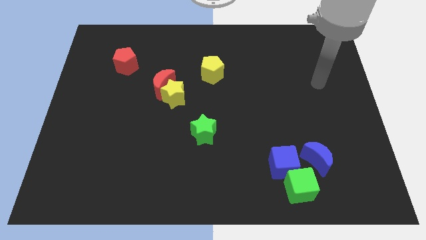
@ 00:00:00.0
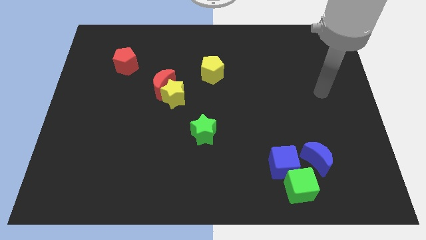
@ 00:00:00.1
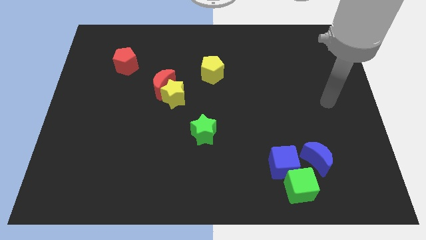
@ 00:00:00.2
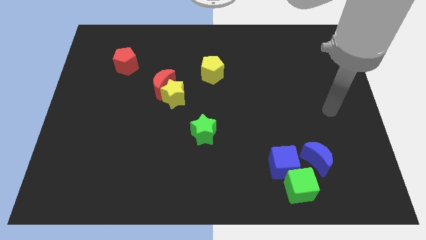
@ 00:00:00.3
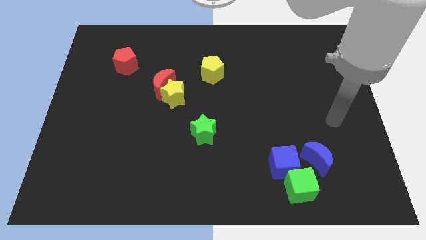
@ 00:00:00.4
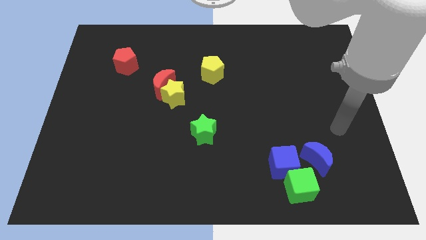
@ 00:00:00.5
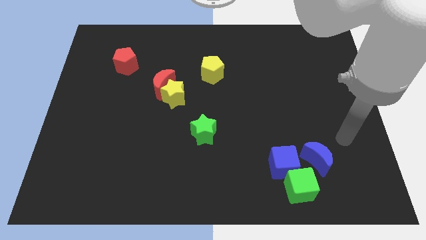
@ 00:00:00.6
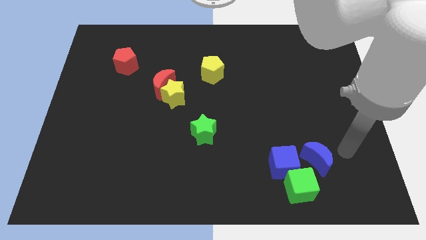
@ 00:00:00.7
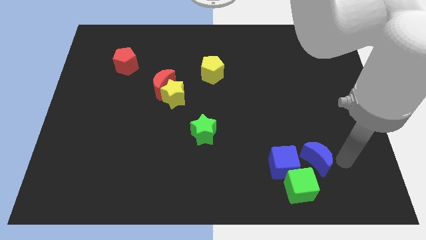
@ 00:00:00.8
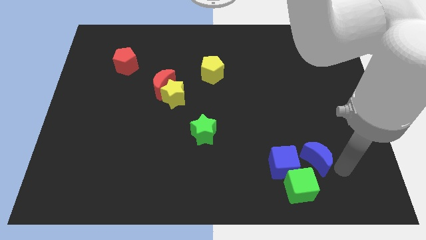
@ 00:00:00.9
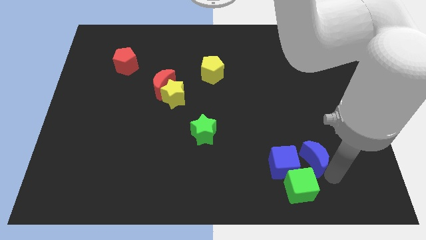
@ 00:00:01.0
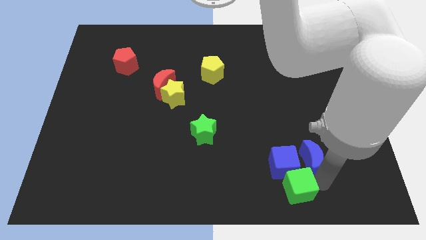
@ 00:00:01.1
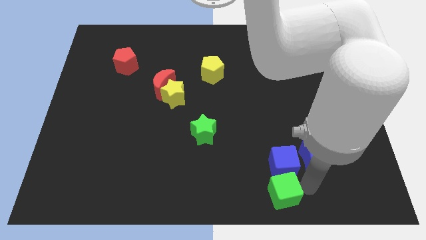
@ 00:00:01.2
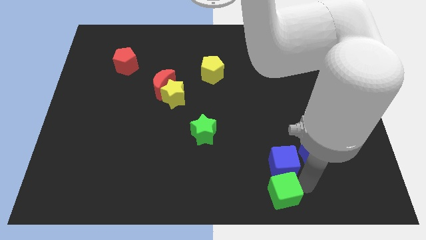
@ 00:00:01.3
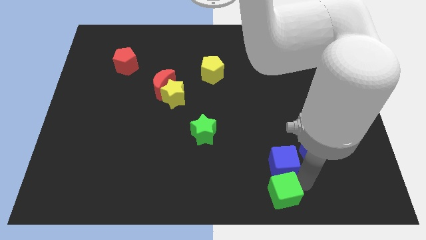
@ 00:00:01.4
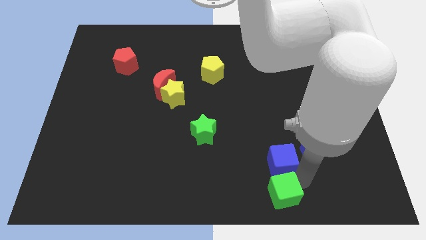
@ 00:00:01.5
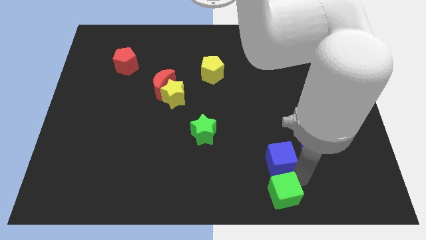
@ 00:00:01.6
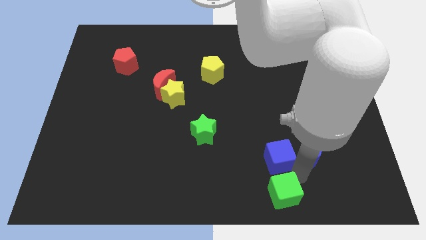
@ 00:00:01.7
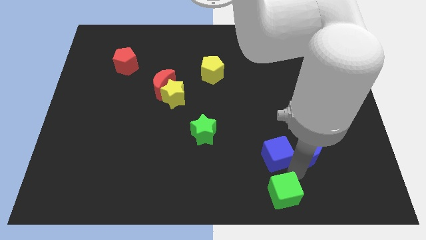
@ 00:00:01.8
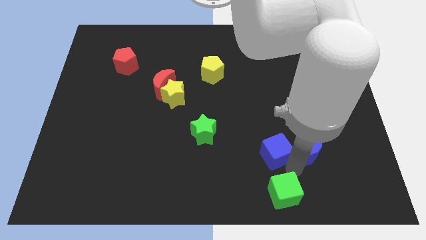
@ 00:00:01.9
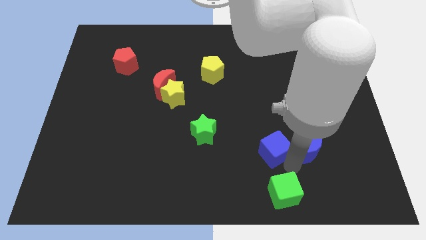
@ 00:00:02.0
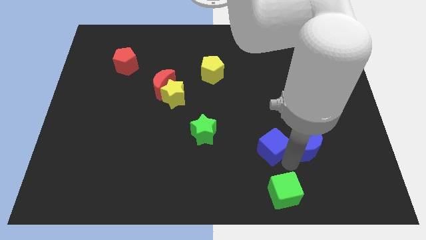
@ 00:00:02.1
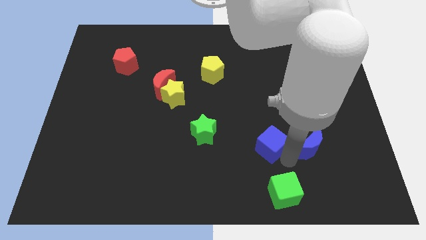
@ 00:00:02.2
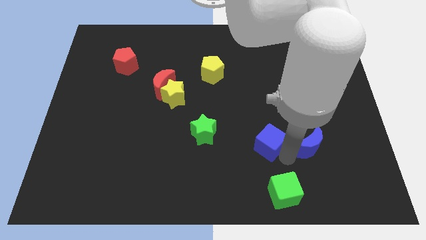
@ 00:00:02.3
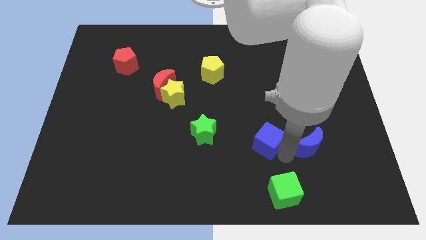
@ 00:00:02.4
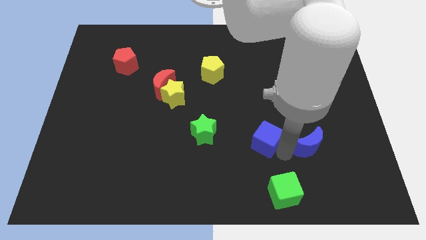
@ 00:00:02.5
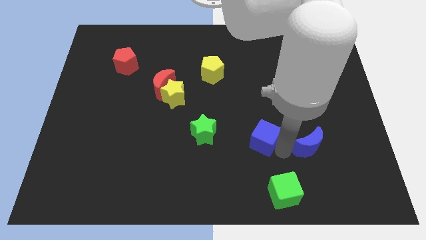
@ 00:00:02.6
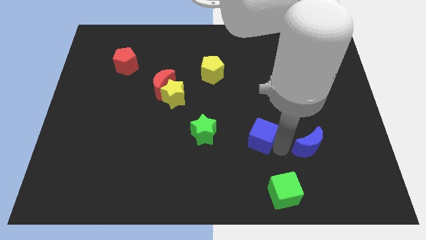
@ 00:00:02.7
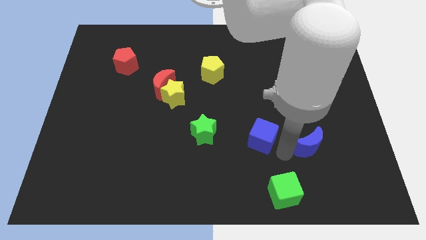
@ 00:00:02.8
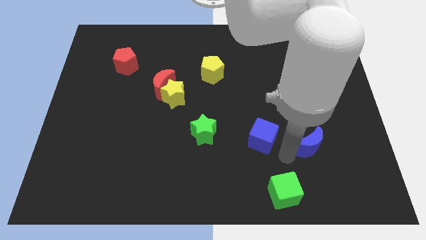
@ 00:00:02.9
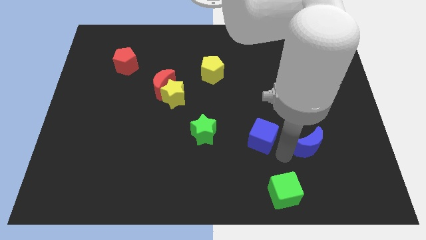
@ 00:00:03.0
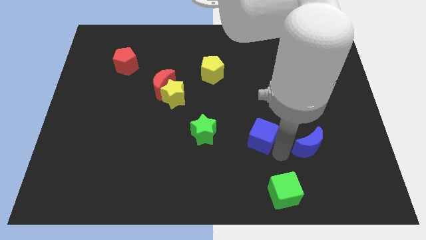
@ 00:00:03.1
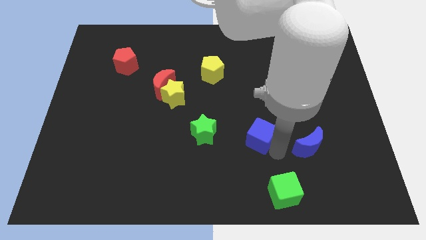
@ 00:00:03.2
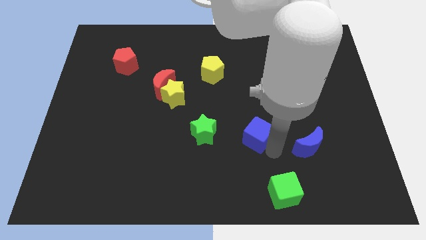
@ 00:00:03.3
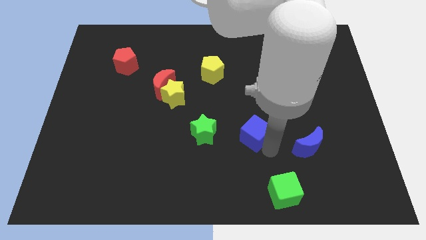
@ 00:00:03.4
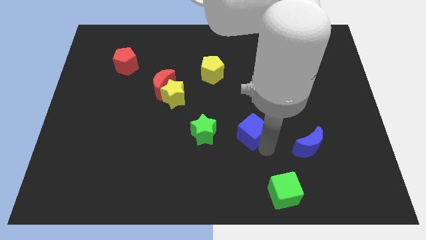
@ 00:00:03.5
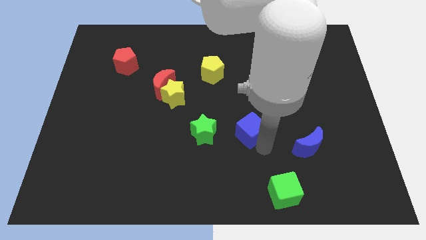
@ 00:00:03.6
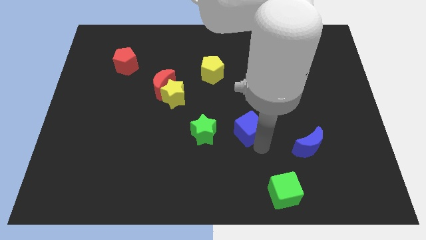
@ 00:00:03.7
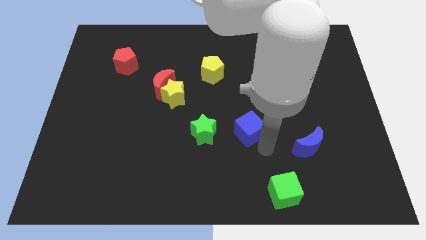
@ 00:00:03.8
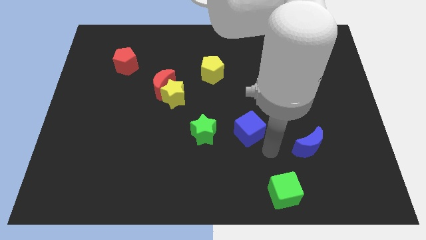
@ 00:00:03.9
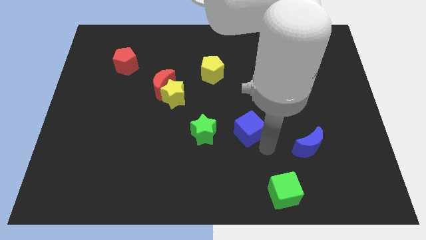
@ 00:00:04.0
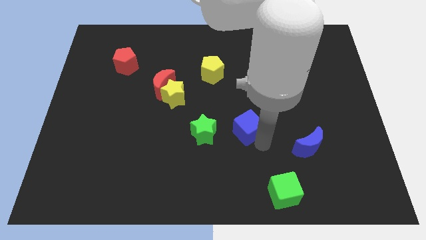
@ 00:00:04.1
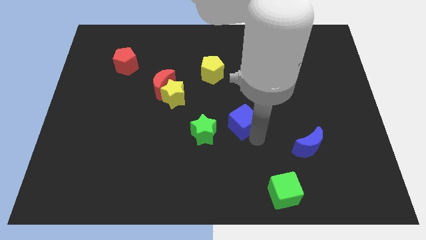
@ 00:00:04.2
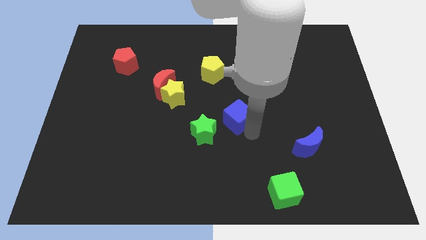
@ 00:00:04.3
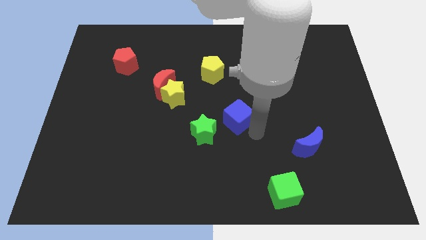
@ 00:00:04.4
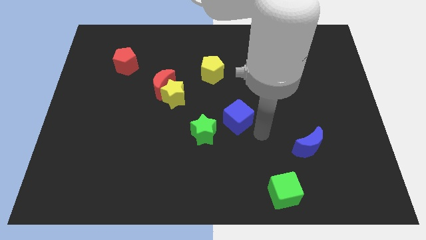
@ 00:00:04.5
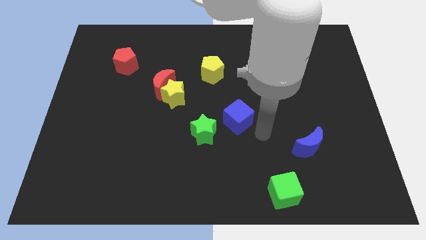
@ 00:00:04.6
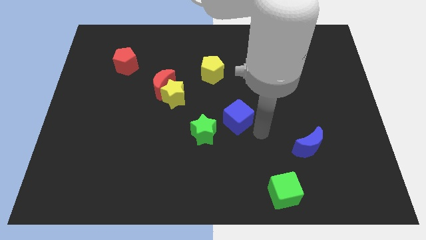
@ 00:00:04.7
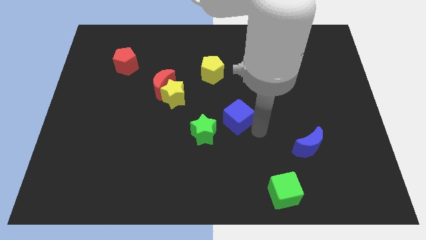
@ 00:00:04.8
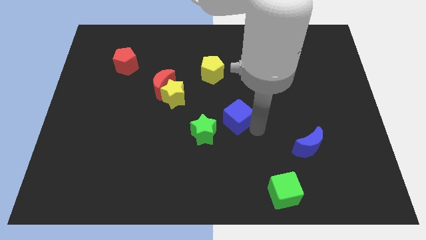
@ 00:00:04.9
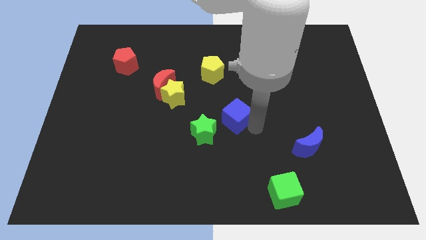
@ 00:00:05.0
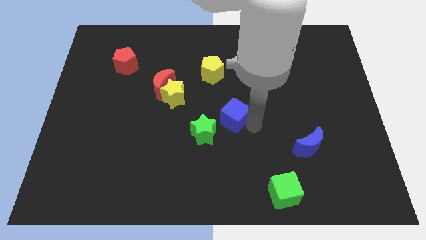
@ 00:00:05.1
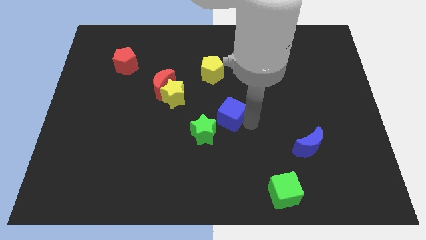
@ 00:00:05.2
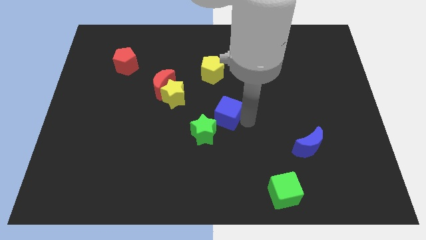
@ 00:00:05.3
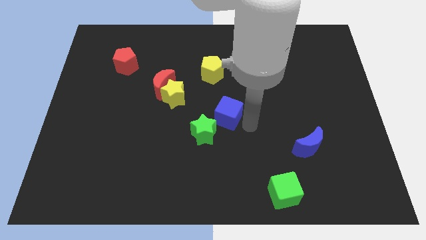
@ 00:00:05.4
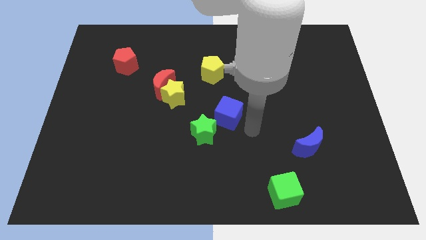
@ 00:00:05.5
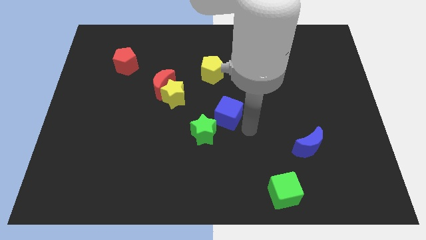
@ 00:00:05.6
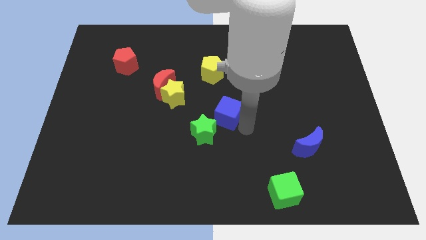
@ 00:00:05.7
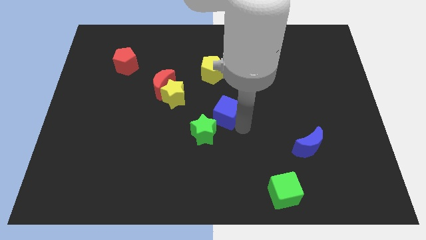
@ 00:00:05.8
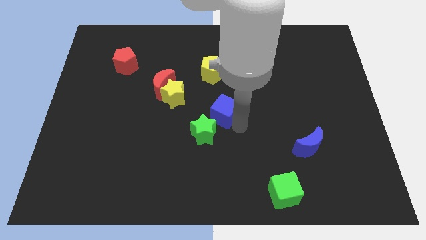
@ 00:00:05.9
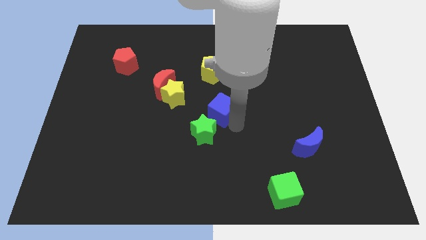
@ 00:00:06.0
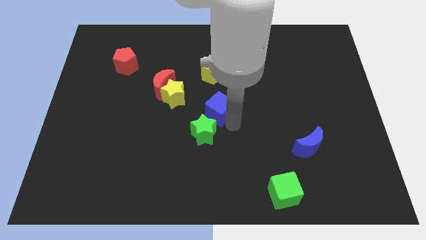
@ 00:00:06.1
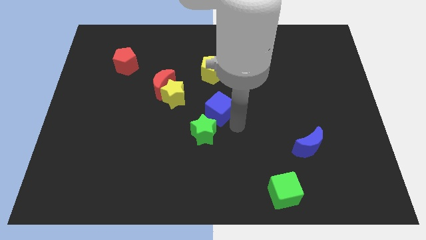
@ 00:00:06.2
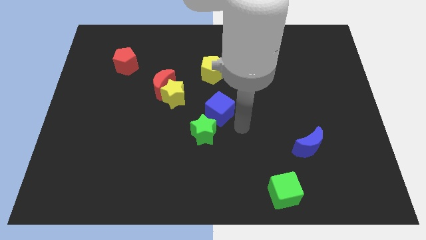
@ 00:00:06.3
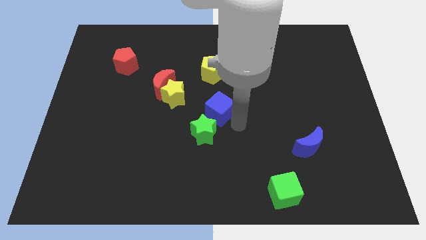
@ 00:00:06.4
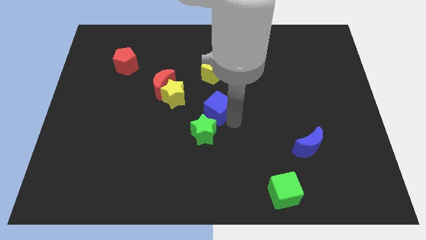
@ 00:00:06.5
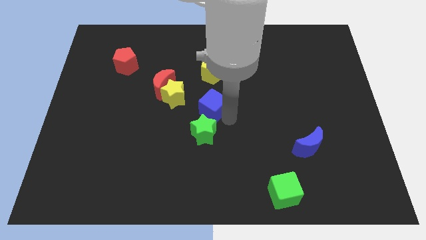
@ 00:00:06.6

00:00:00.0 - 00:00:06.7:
push the blue cube up and left diagonally

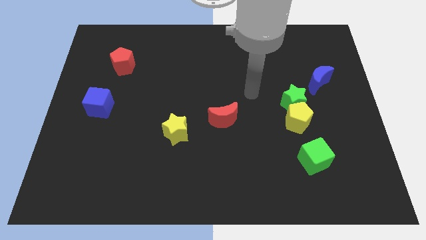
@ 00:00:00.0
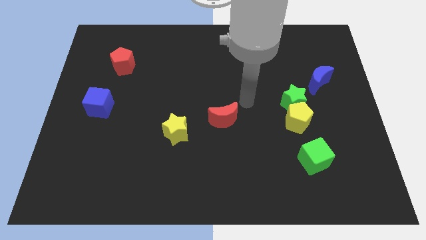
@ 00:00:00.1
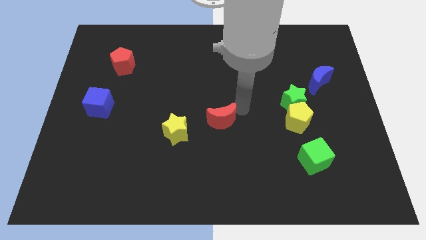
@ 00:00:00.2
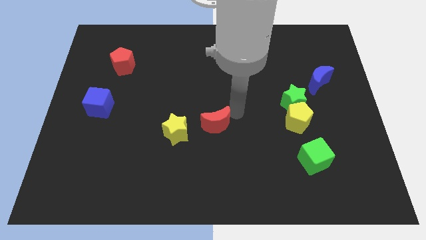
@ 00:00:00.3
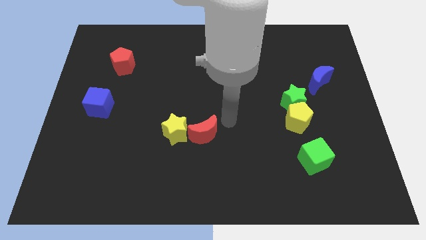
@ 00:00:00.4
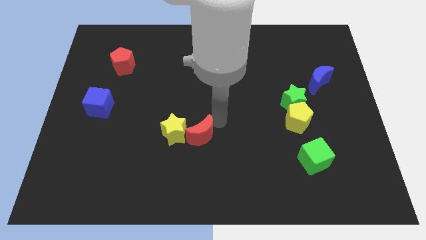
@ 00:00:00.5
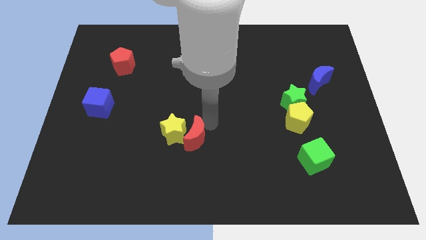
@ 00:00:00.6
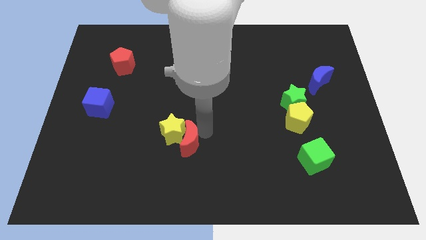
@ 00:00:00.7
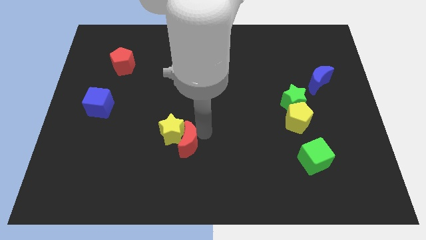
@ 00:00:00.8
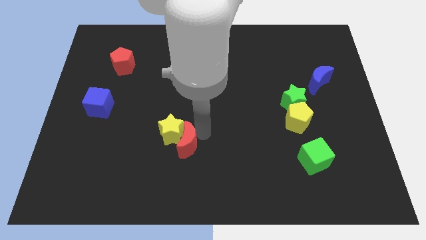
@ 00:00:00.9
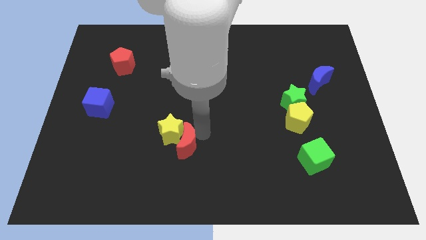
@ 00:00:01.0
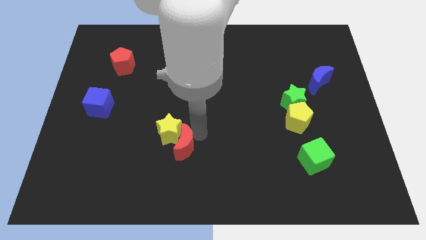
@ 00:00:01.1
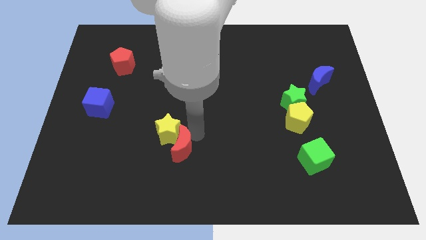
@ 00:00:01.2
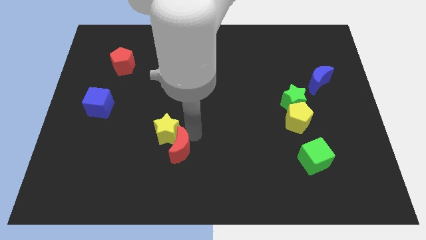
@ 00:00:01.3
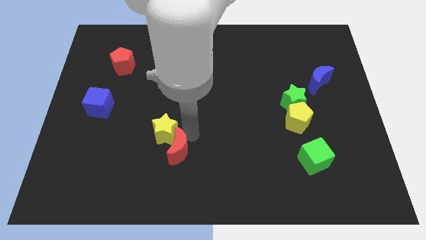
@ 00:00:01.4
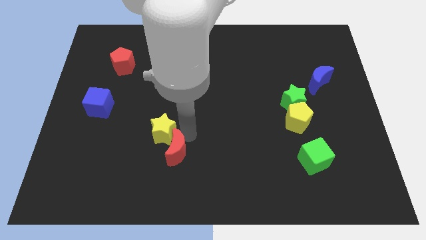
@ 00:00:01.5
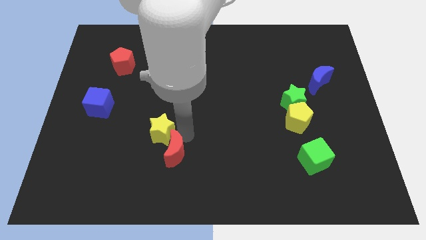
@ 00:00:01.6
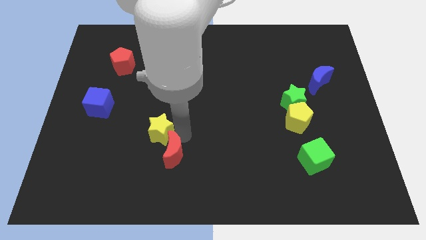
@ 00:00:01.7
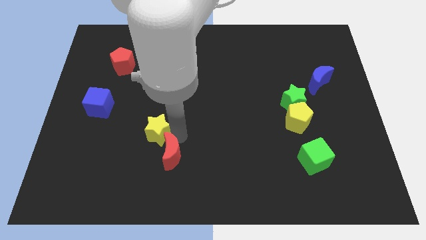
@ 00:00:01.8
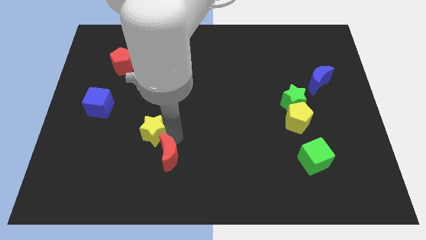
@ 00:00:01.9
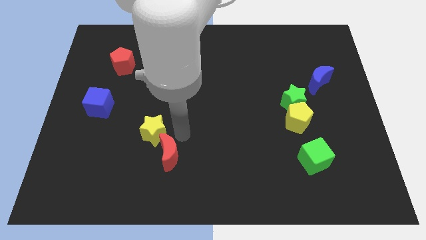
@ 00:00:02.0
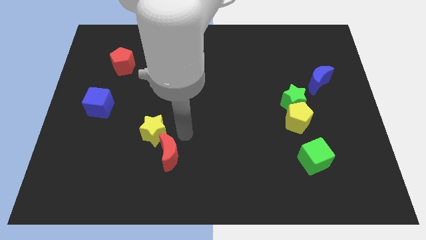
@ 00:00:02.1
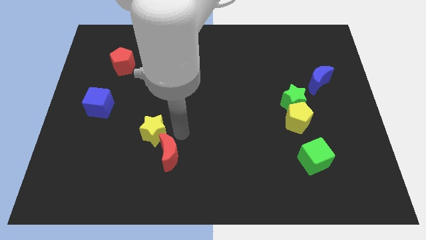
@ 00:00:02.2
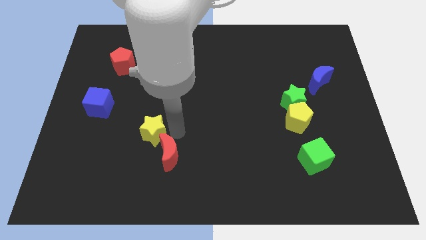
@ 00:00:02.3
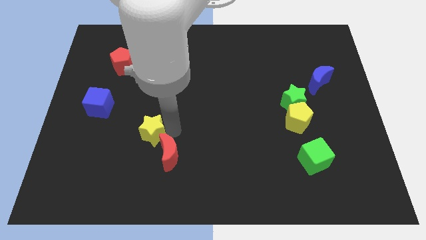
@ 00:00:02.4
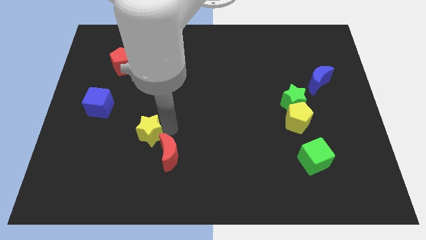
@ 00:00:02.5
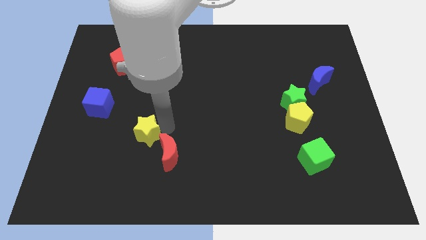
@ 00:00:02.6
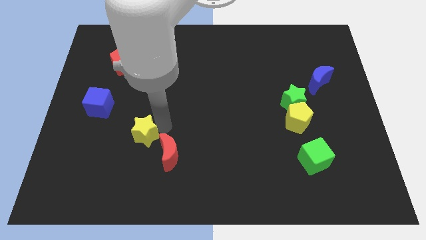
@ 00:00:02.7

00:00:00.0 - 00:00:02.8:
move the yellow star to the left slightly
